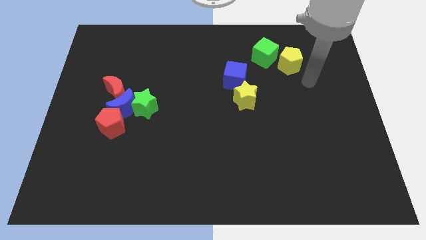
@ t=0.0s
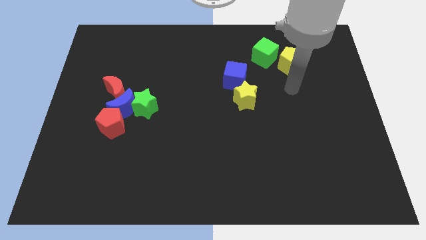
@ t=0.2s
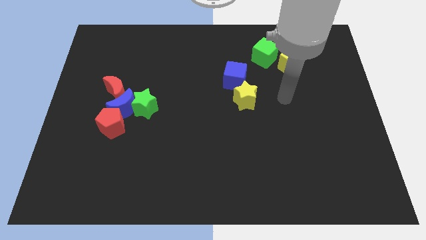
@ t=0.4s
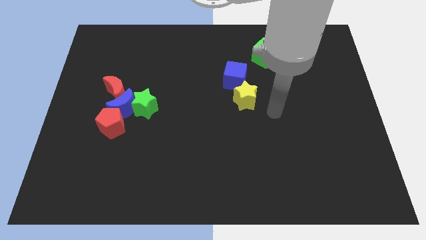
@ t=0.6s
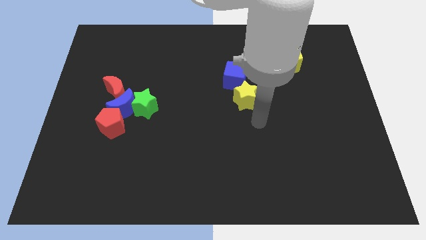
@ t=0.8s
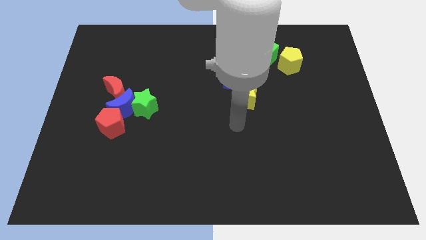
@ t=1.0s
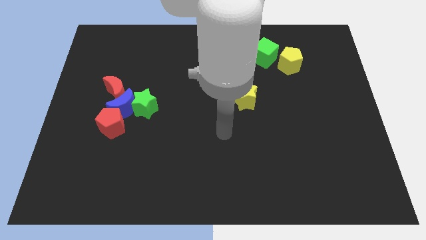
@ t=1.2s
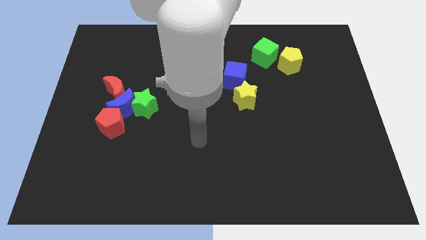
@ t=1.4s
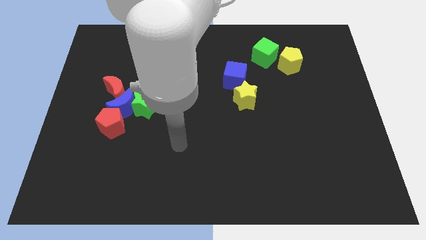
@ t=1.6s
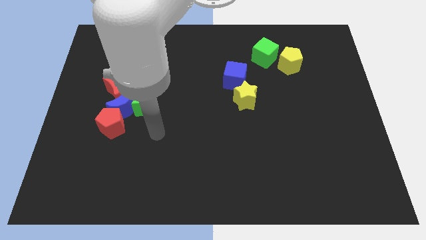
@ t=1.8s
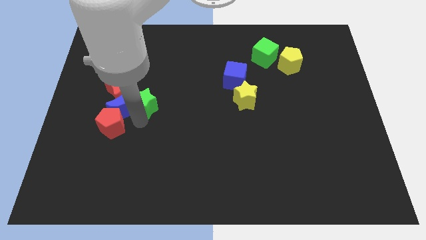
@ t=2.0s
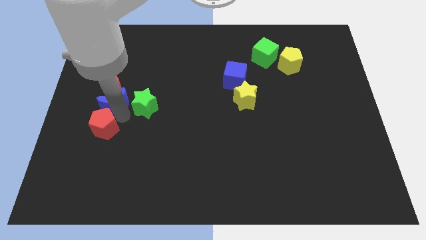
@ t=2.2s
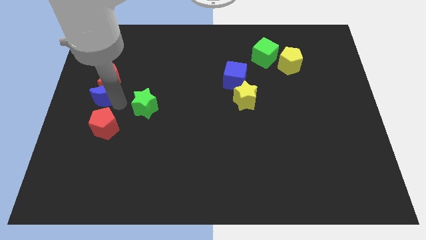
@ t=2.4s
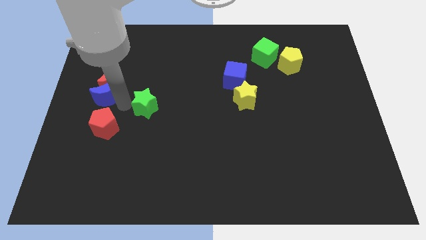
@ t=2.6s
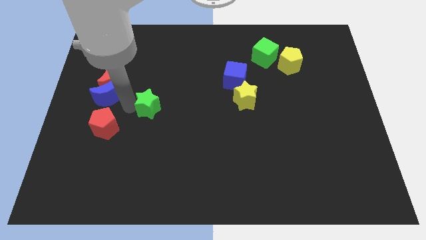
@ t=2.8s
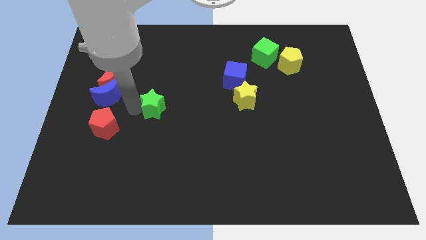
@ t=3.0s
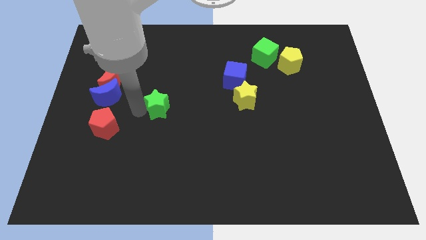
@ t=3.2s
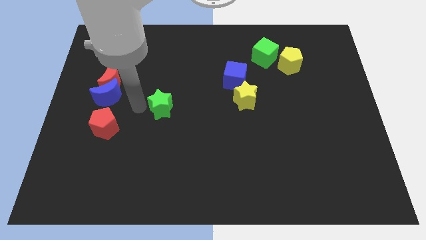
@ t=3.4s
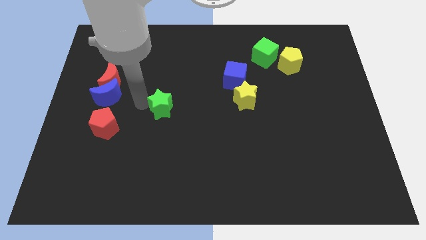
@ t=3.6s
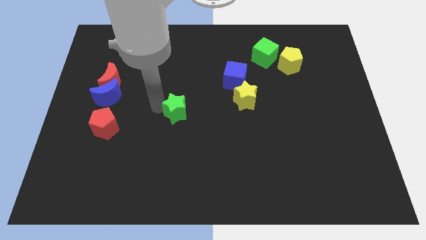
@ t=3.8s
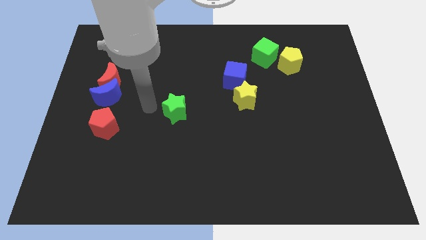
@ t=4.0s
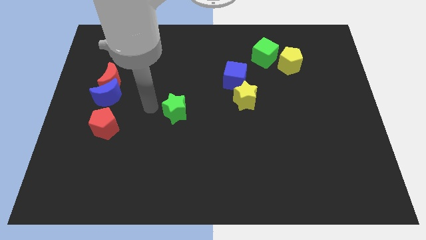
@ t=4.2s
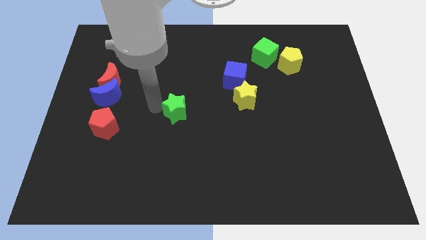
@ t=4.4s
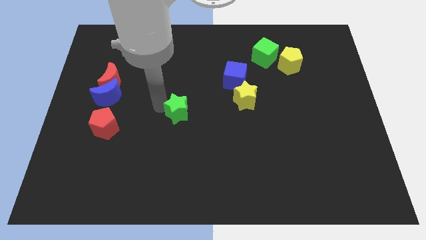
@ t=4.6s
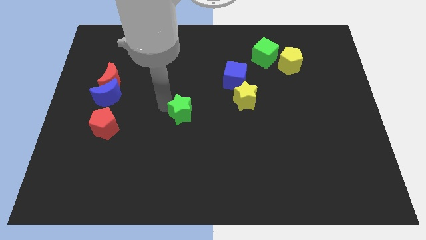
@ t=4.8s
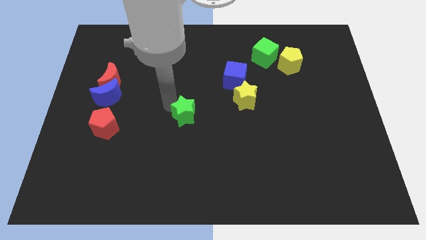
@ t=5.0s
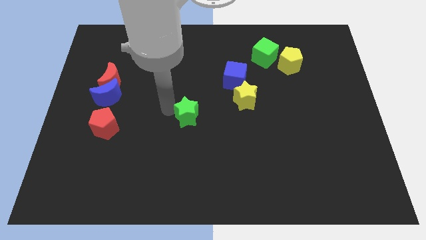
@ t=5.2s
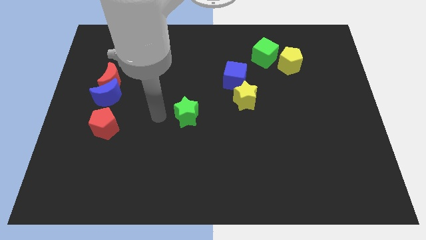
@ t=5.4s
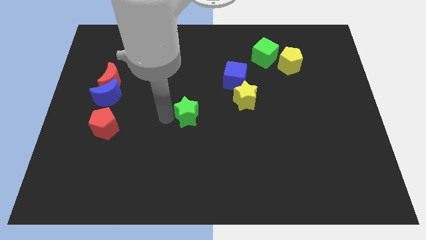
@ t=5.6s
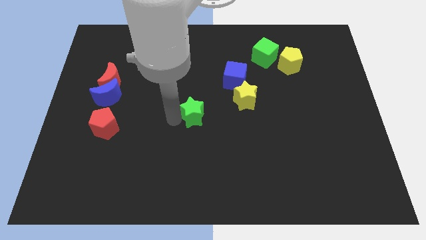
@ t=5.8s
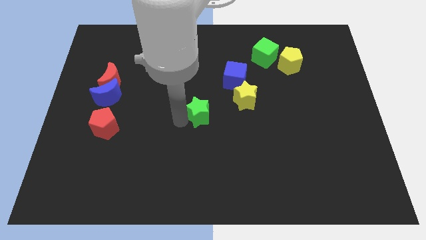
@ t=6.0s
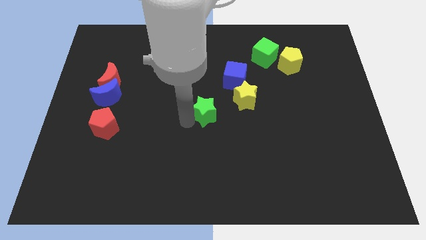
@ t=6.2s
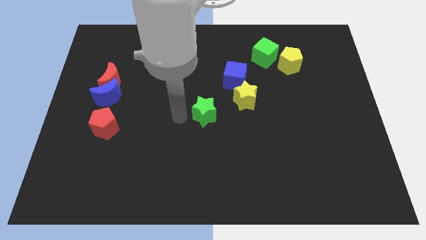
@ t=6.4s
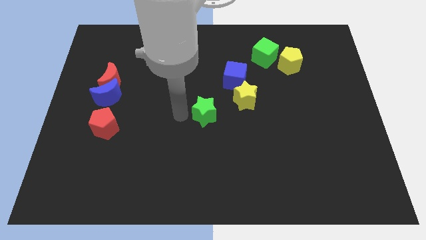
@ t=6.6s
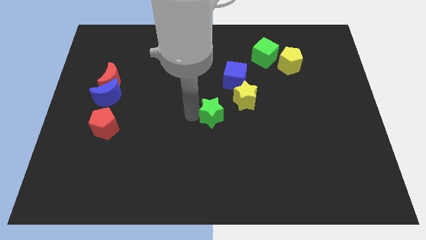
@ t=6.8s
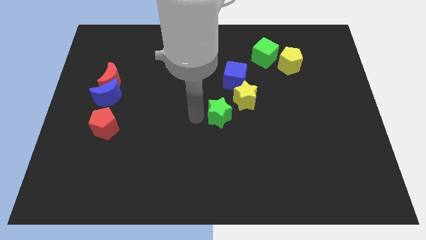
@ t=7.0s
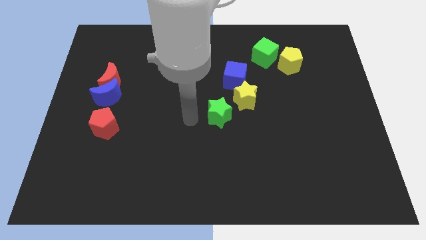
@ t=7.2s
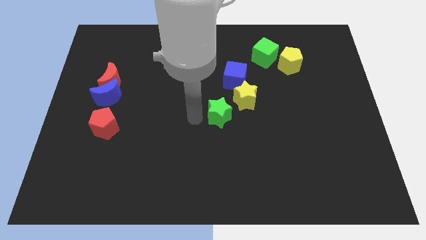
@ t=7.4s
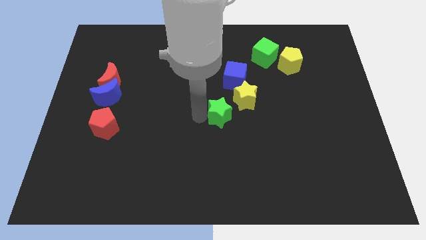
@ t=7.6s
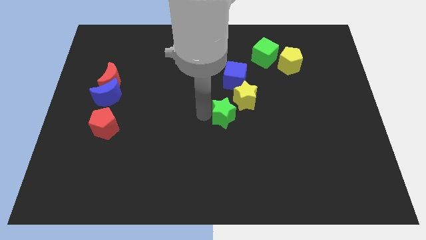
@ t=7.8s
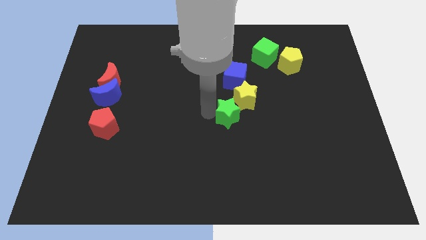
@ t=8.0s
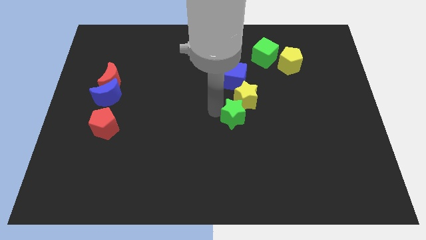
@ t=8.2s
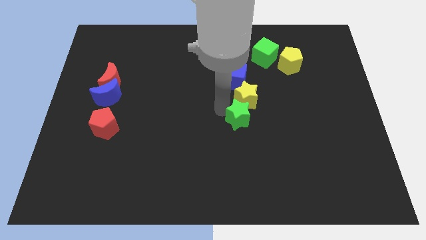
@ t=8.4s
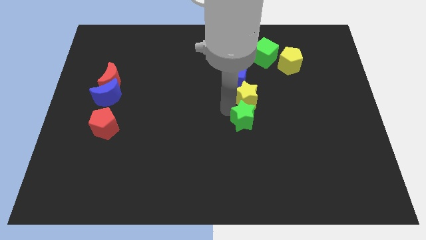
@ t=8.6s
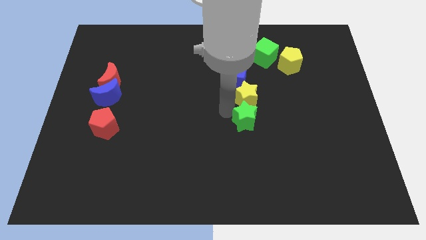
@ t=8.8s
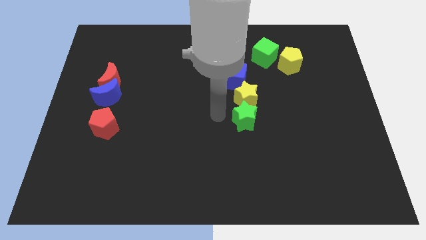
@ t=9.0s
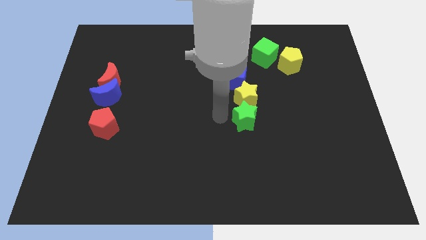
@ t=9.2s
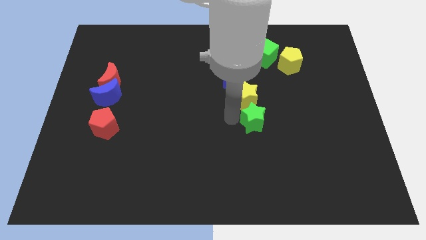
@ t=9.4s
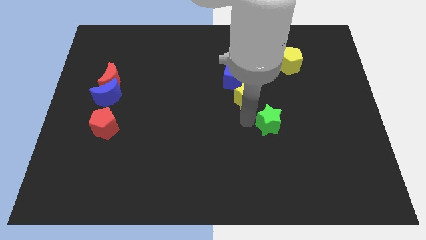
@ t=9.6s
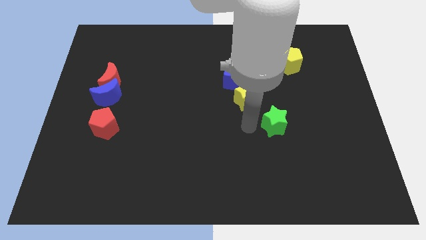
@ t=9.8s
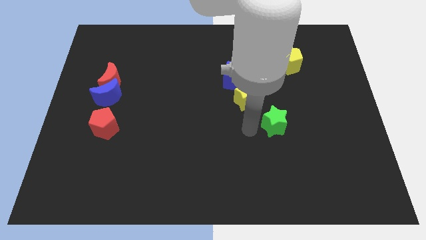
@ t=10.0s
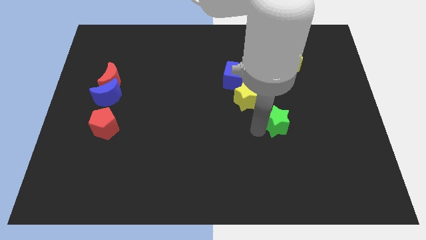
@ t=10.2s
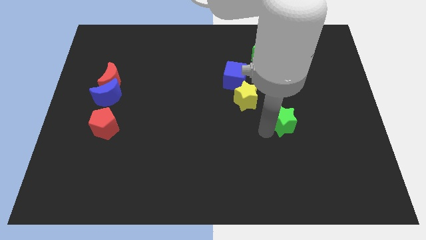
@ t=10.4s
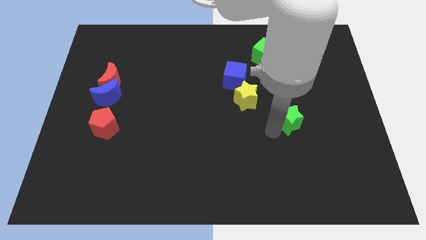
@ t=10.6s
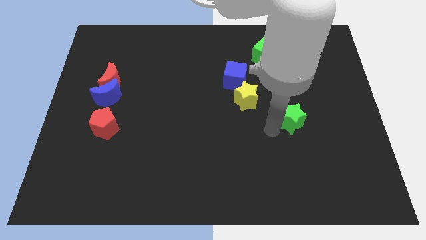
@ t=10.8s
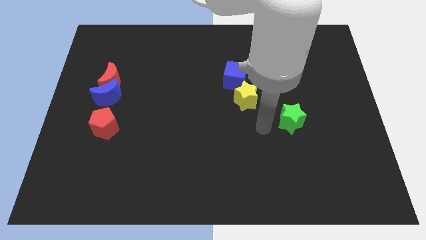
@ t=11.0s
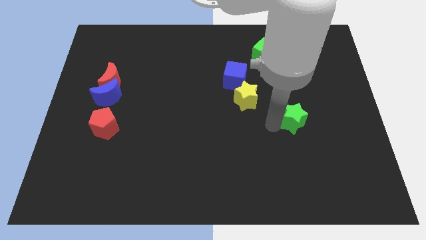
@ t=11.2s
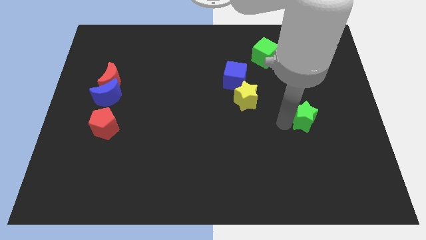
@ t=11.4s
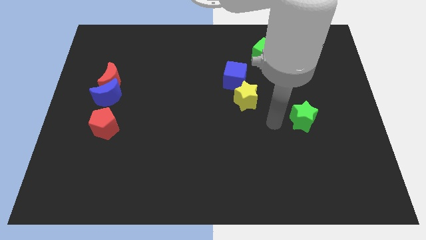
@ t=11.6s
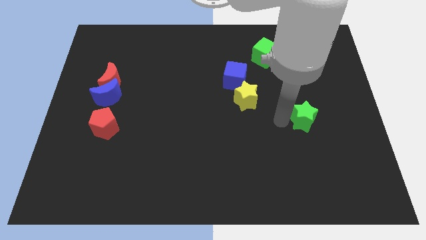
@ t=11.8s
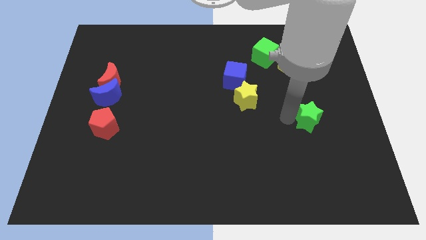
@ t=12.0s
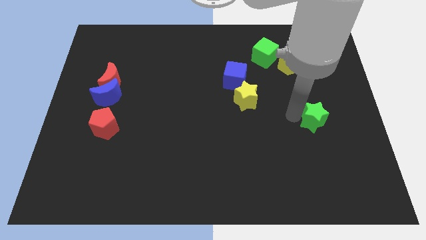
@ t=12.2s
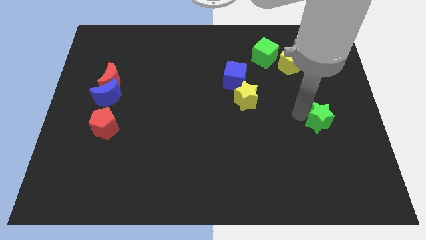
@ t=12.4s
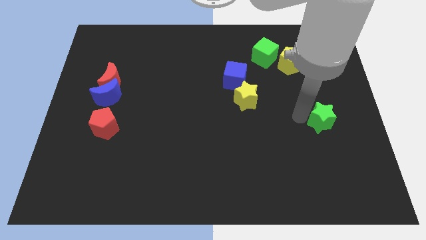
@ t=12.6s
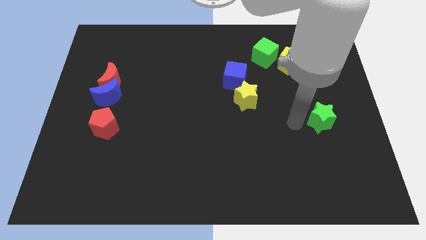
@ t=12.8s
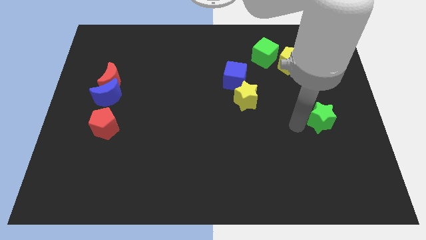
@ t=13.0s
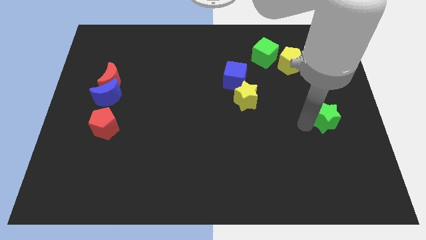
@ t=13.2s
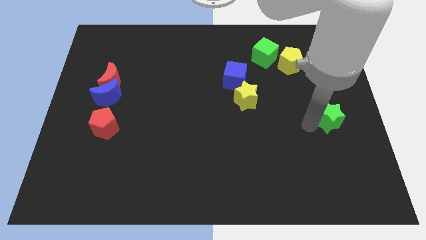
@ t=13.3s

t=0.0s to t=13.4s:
put the green star to the center right
